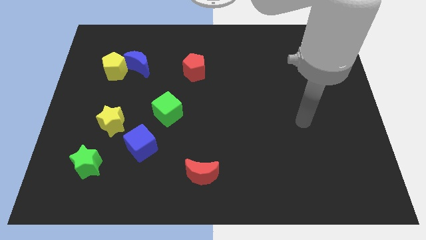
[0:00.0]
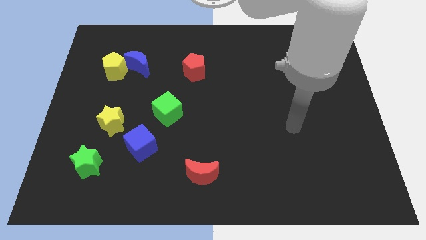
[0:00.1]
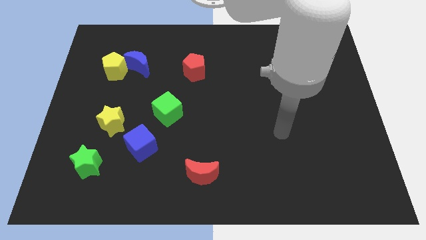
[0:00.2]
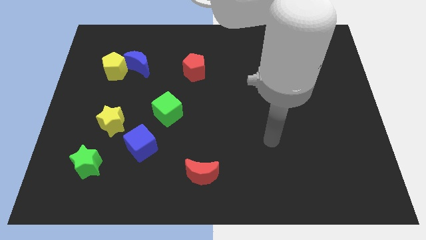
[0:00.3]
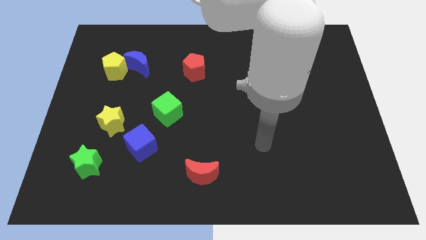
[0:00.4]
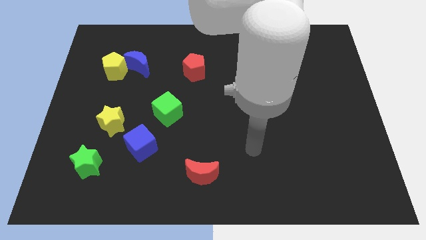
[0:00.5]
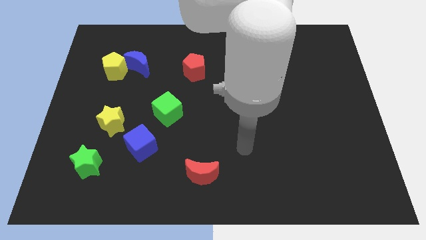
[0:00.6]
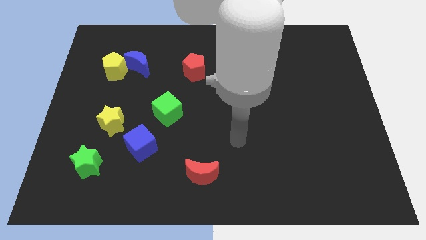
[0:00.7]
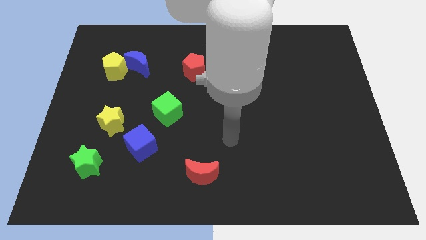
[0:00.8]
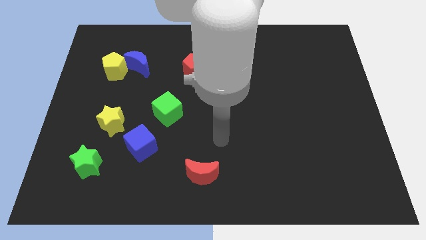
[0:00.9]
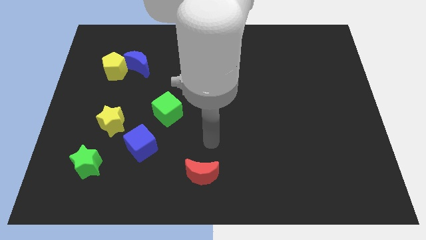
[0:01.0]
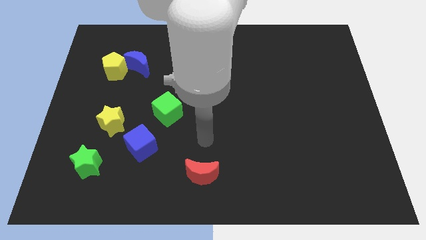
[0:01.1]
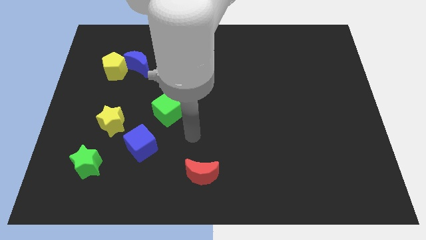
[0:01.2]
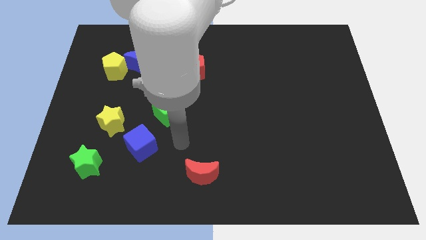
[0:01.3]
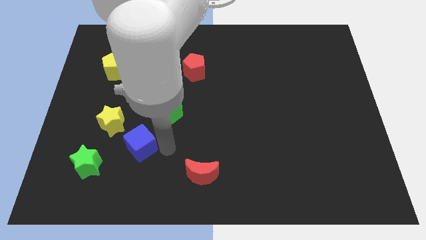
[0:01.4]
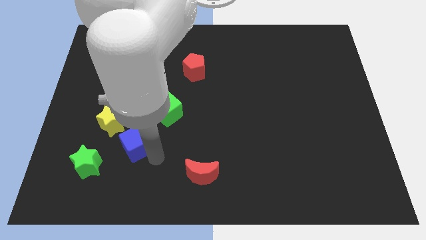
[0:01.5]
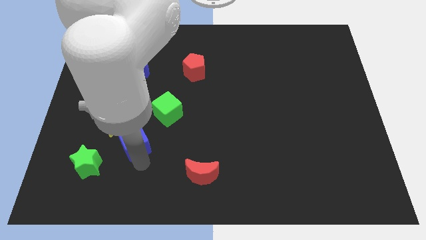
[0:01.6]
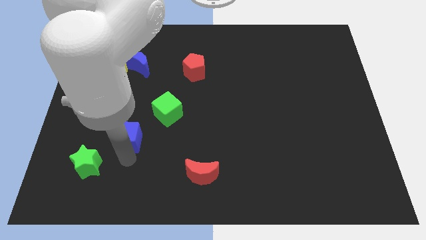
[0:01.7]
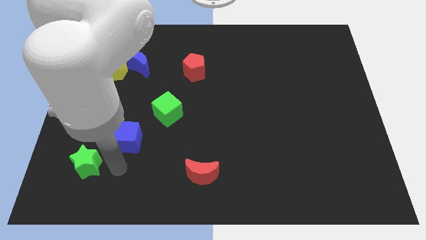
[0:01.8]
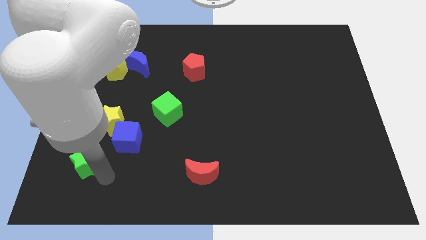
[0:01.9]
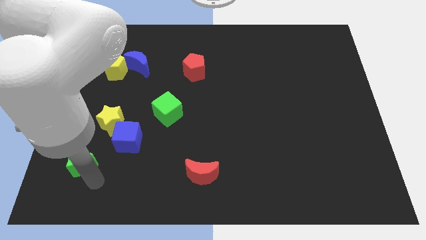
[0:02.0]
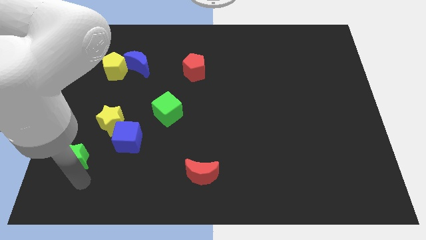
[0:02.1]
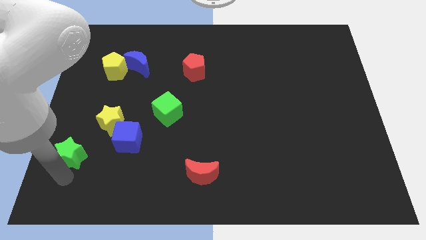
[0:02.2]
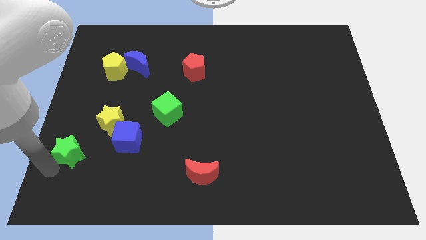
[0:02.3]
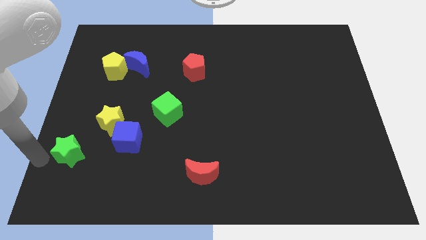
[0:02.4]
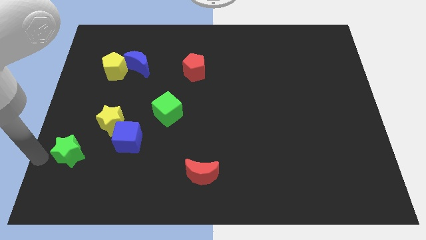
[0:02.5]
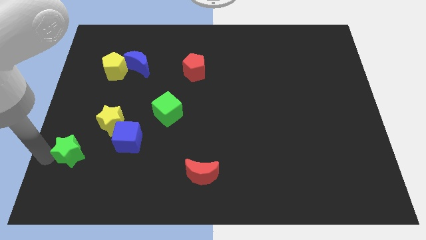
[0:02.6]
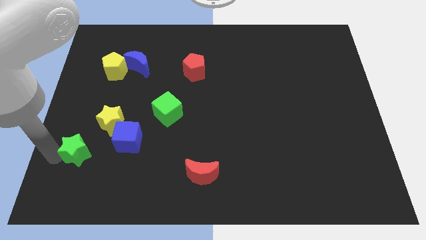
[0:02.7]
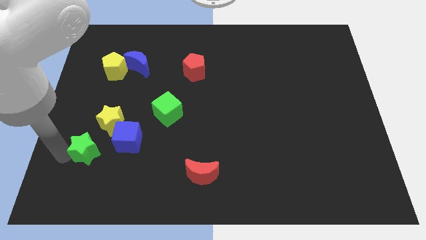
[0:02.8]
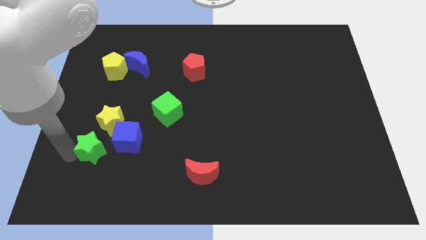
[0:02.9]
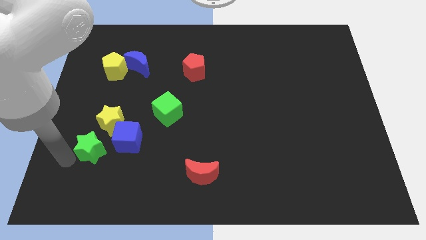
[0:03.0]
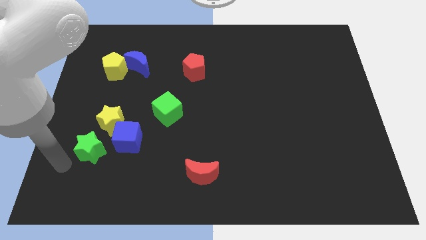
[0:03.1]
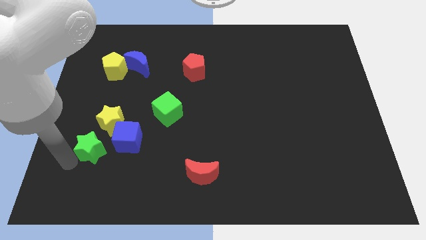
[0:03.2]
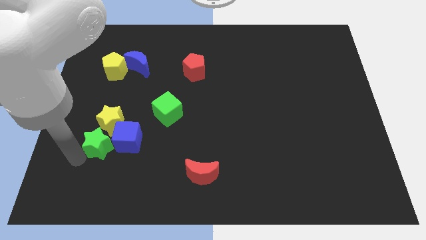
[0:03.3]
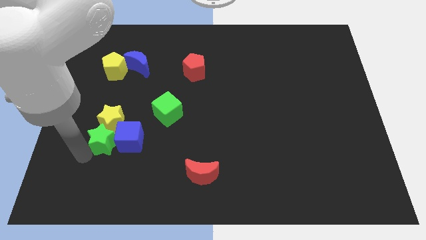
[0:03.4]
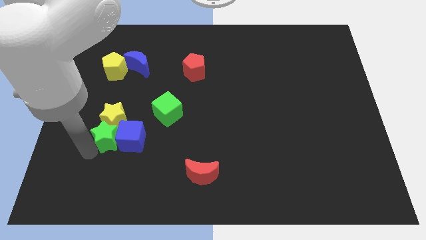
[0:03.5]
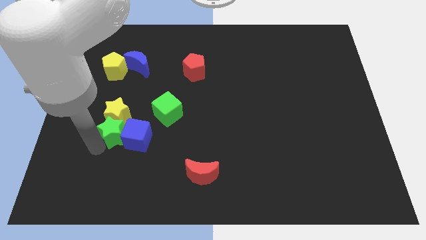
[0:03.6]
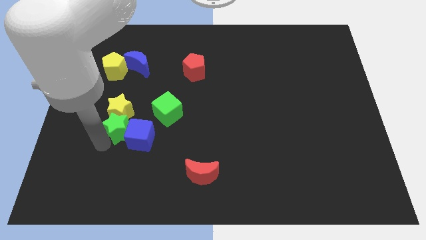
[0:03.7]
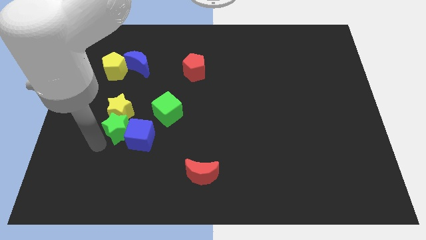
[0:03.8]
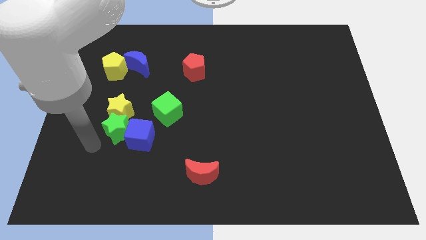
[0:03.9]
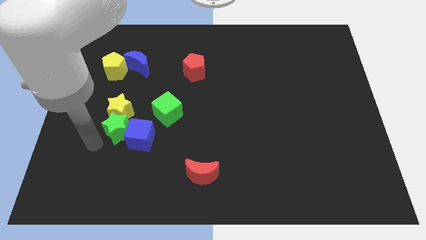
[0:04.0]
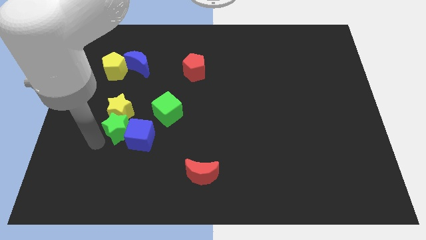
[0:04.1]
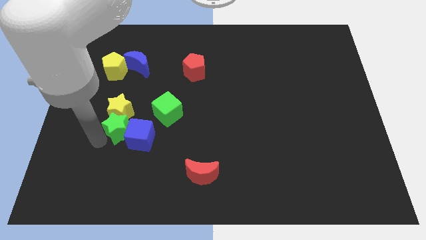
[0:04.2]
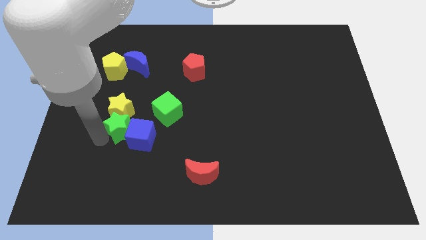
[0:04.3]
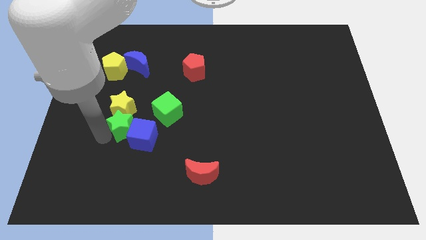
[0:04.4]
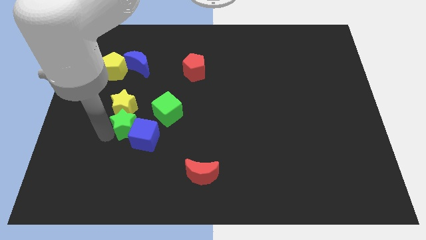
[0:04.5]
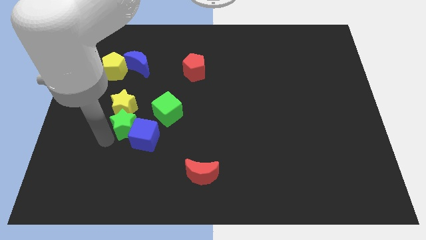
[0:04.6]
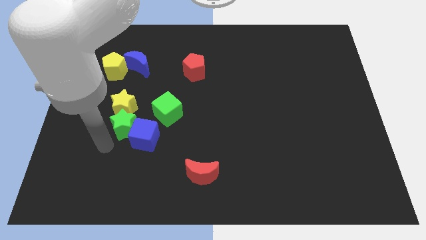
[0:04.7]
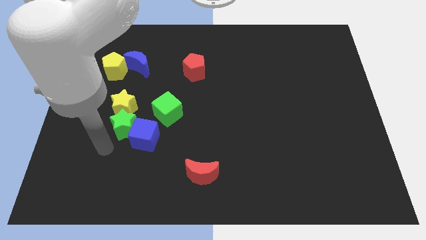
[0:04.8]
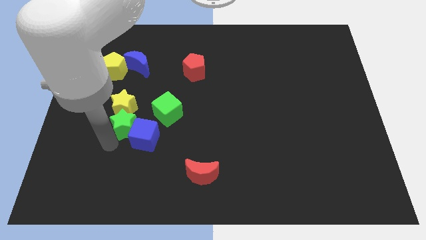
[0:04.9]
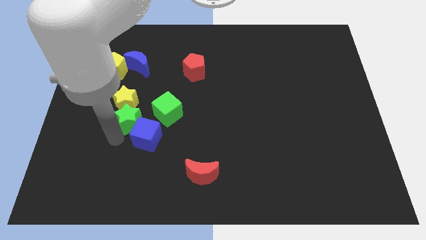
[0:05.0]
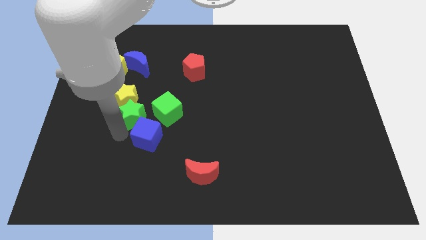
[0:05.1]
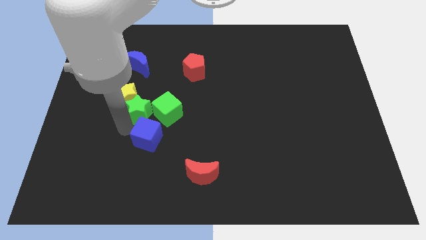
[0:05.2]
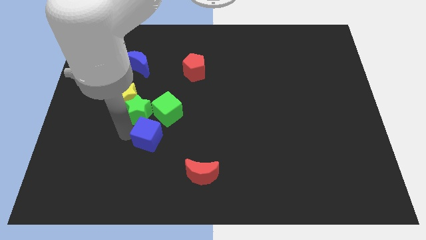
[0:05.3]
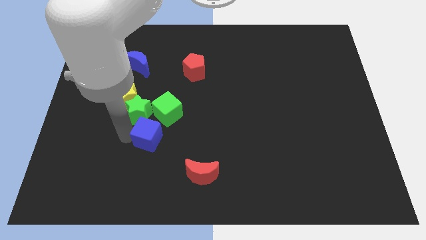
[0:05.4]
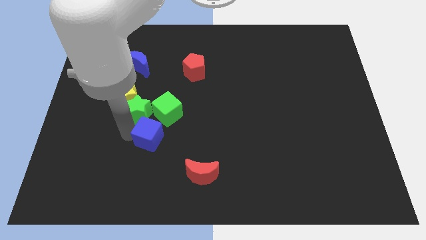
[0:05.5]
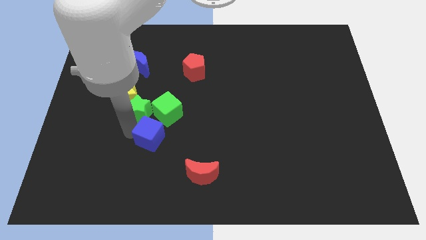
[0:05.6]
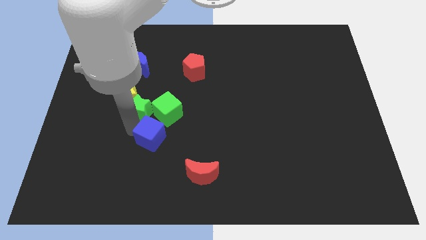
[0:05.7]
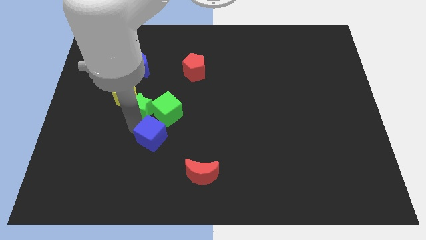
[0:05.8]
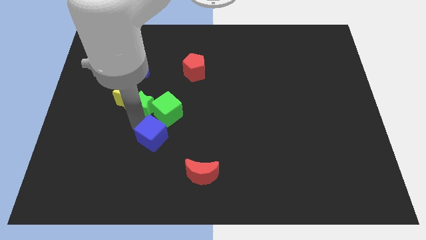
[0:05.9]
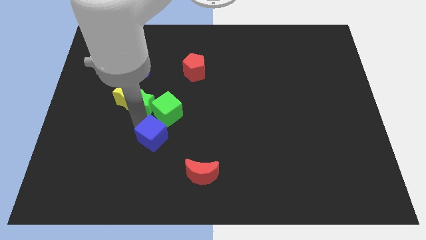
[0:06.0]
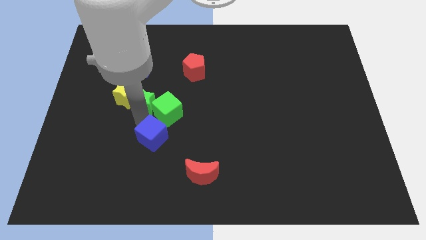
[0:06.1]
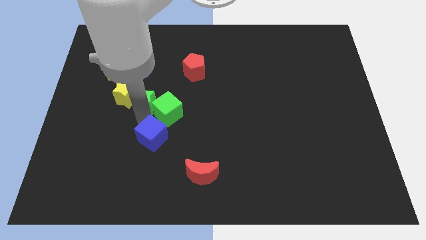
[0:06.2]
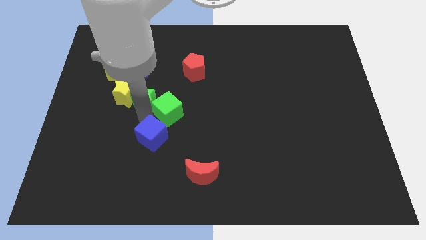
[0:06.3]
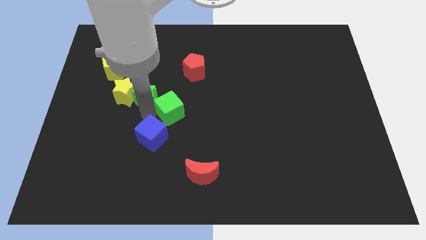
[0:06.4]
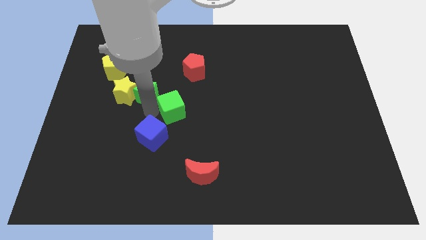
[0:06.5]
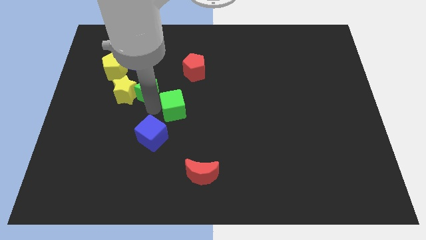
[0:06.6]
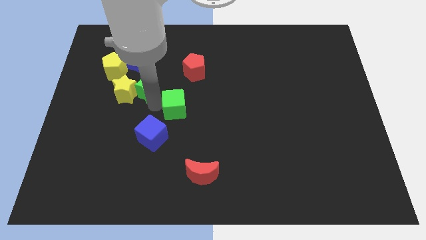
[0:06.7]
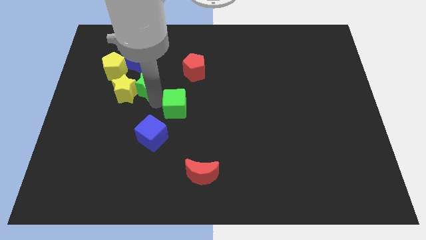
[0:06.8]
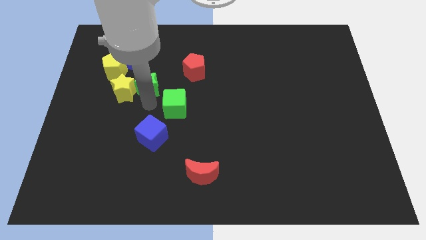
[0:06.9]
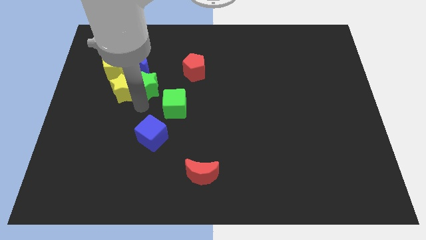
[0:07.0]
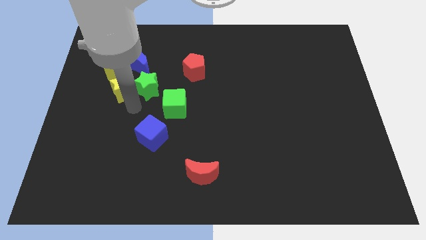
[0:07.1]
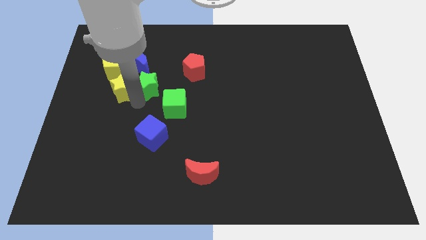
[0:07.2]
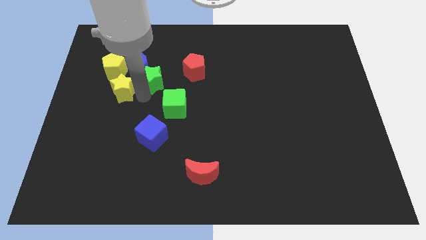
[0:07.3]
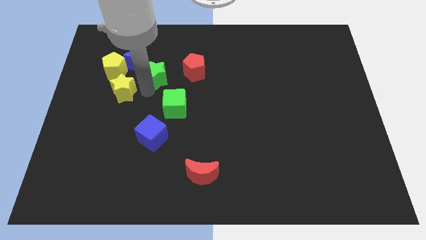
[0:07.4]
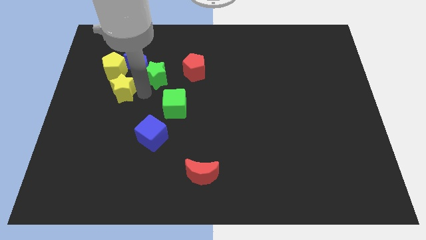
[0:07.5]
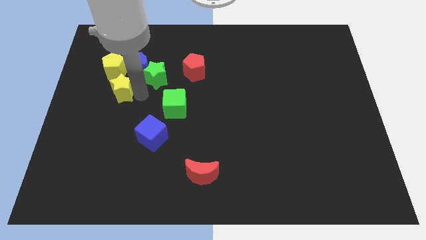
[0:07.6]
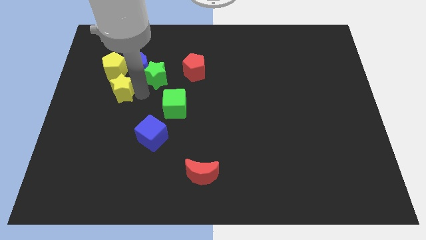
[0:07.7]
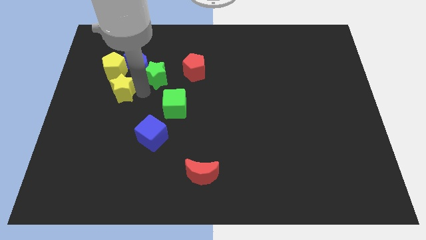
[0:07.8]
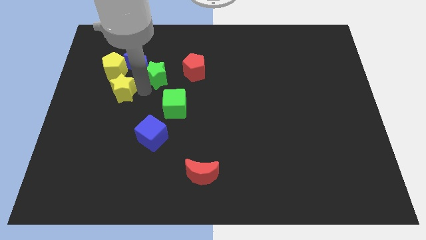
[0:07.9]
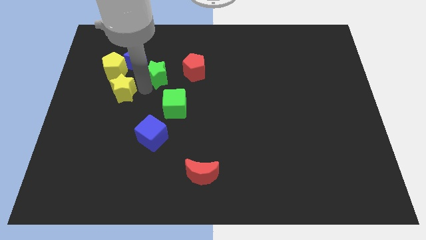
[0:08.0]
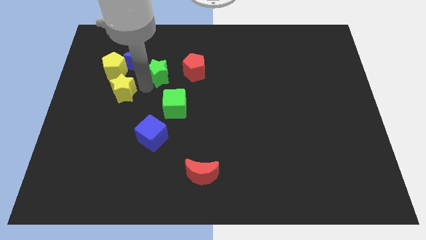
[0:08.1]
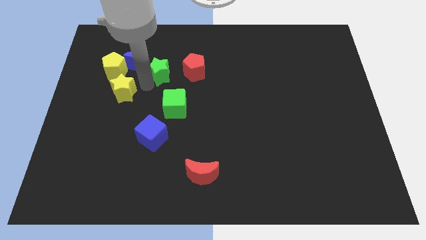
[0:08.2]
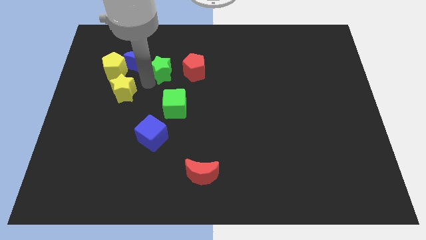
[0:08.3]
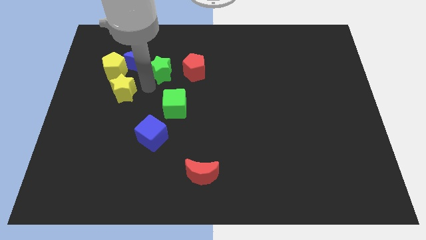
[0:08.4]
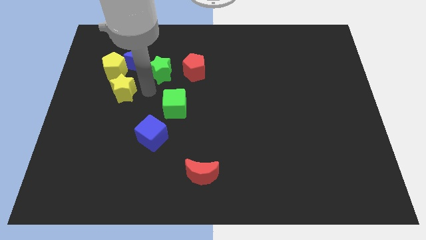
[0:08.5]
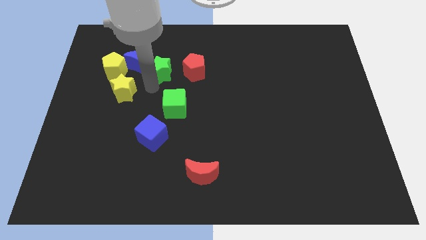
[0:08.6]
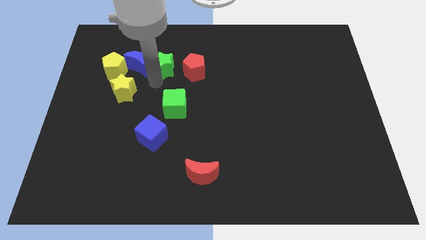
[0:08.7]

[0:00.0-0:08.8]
slide the green star to the top left of the red pentagon
